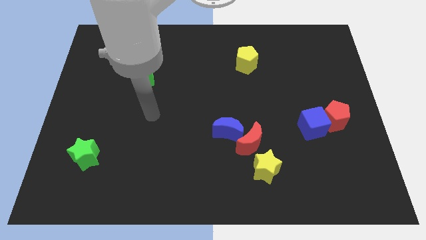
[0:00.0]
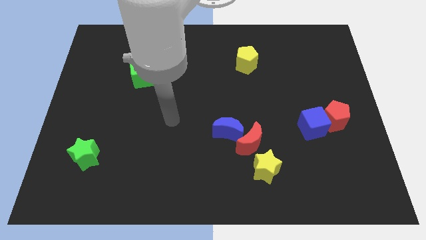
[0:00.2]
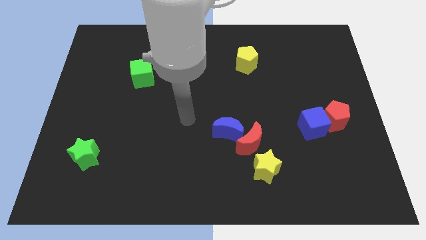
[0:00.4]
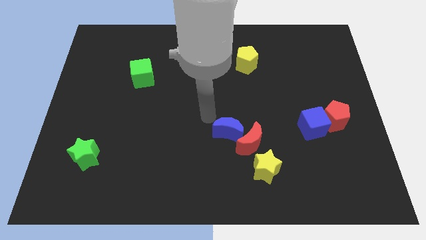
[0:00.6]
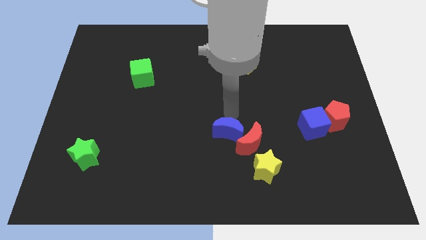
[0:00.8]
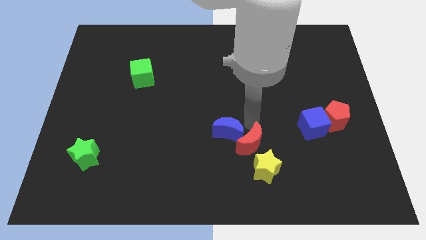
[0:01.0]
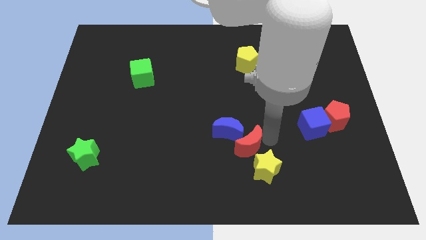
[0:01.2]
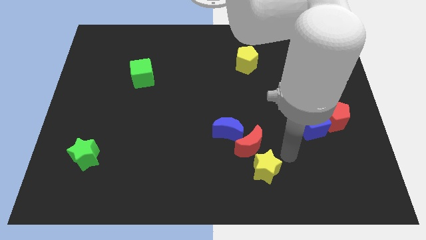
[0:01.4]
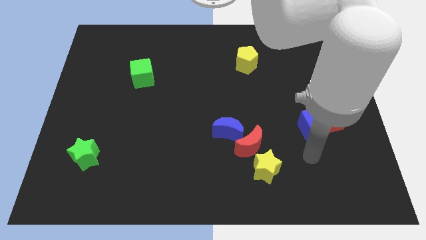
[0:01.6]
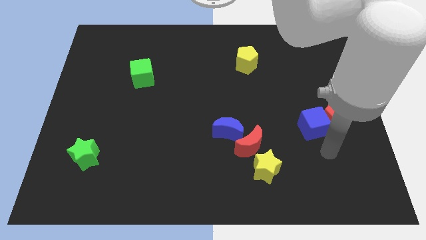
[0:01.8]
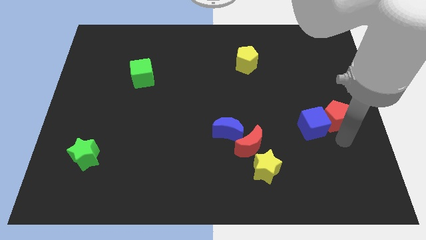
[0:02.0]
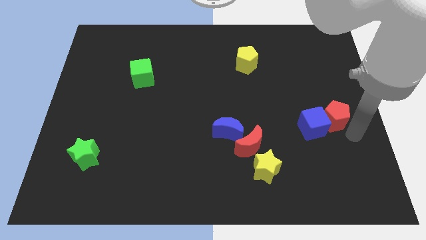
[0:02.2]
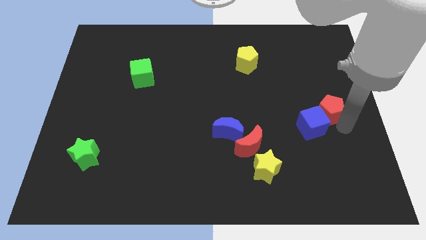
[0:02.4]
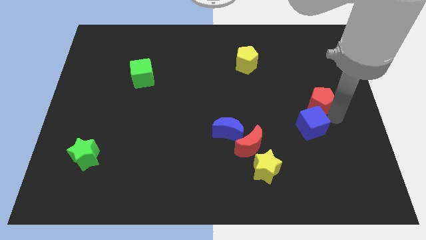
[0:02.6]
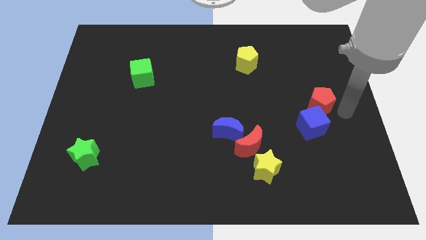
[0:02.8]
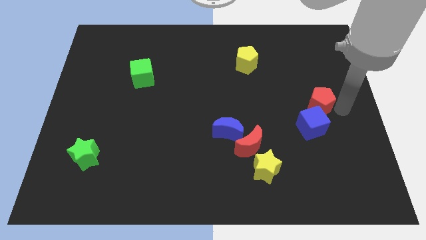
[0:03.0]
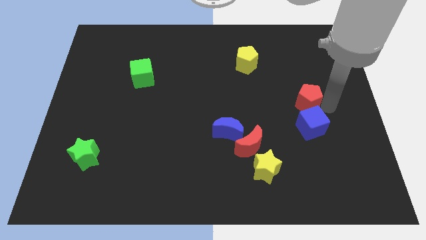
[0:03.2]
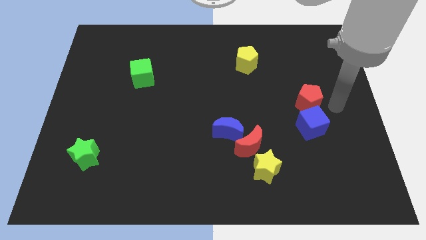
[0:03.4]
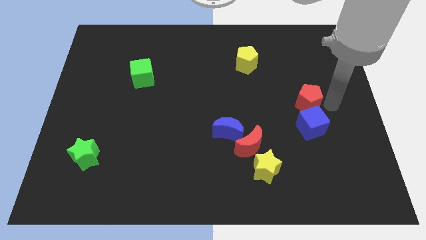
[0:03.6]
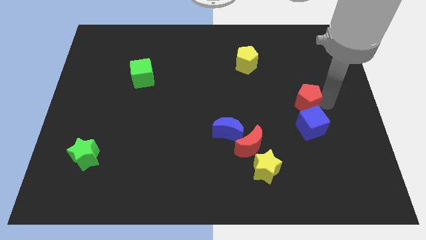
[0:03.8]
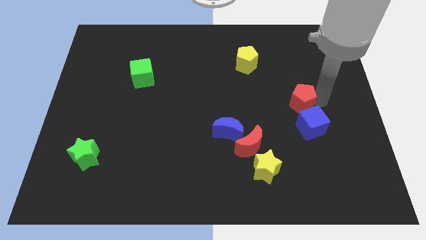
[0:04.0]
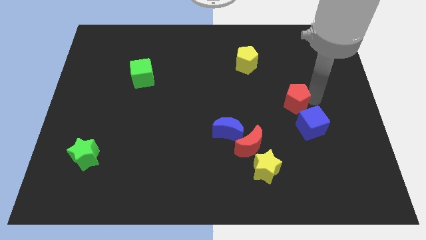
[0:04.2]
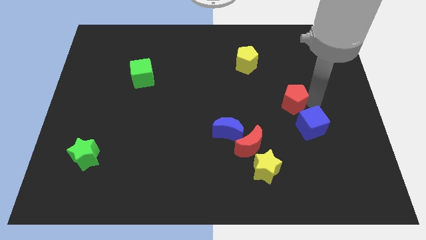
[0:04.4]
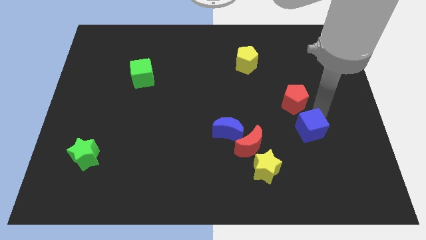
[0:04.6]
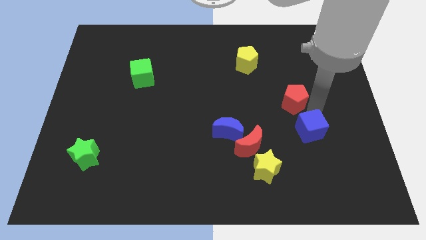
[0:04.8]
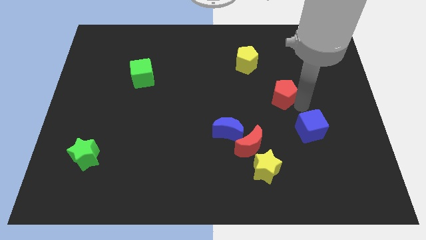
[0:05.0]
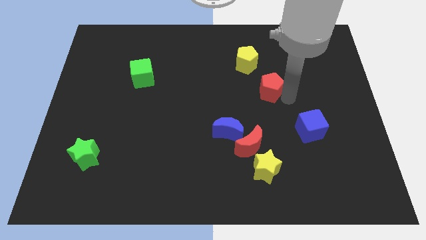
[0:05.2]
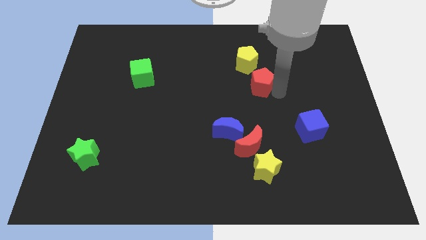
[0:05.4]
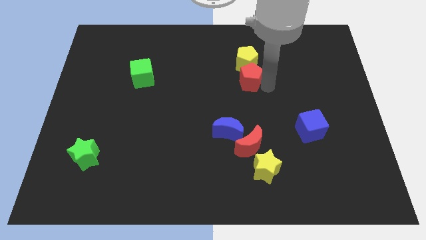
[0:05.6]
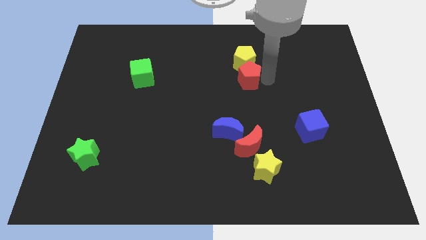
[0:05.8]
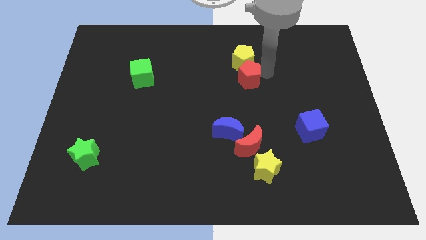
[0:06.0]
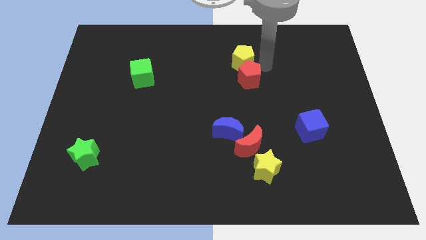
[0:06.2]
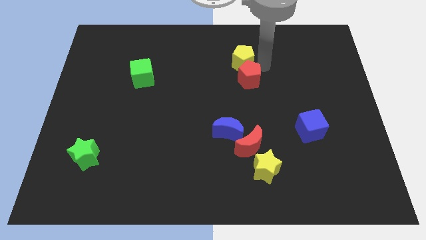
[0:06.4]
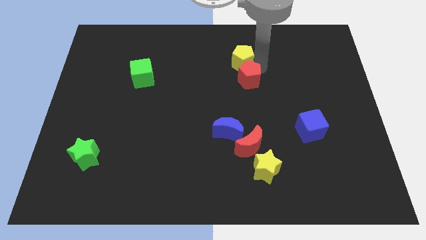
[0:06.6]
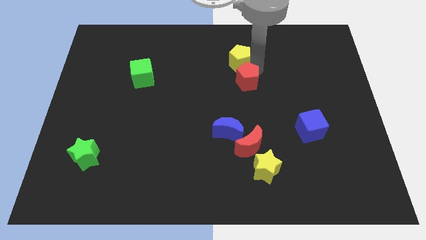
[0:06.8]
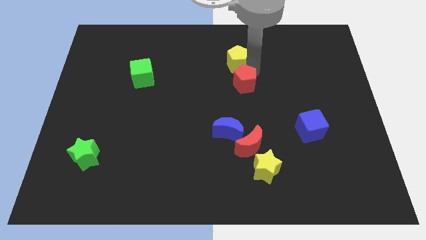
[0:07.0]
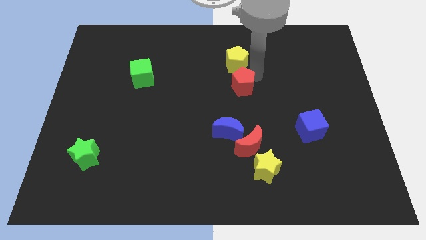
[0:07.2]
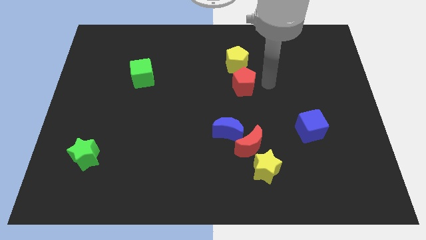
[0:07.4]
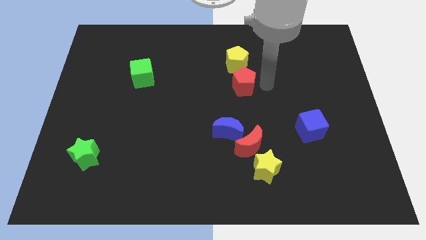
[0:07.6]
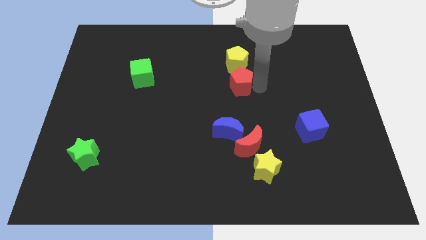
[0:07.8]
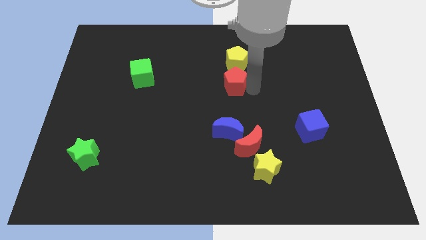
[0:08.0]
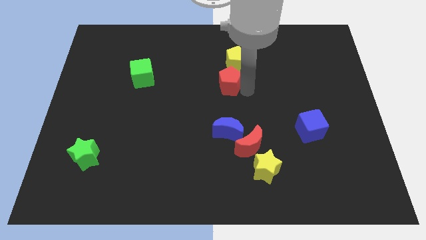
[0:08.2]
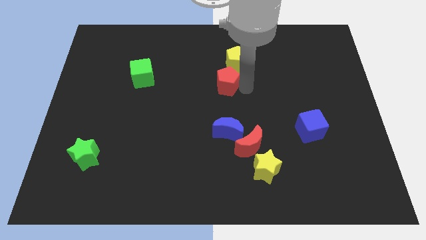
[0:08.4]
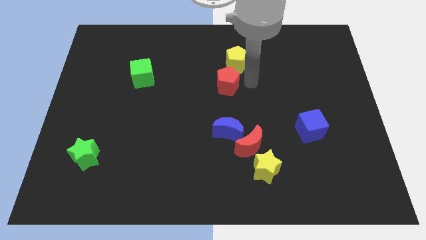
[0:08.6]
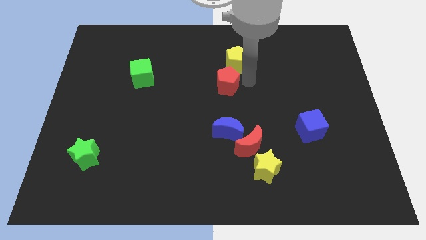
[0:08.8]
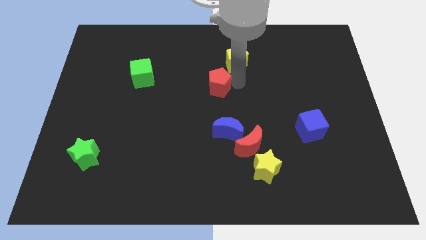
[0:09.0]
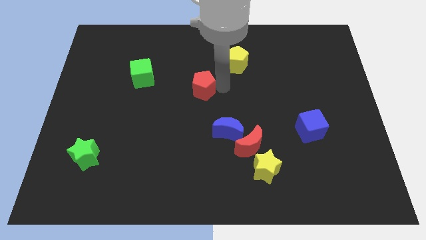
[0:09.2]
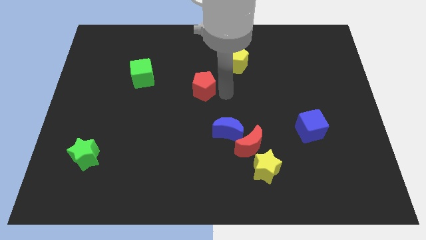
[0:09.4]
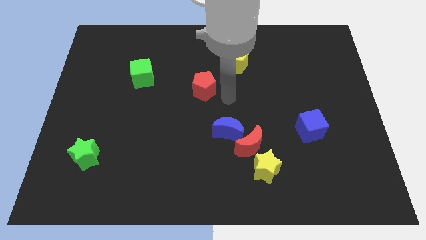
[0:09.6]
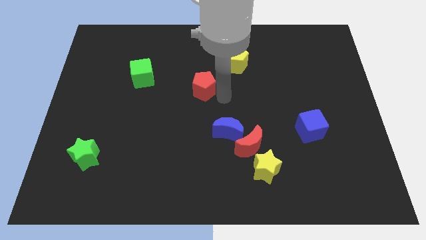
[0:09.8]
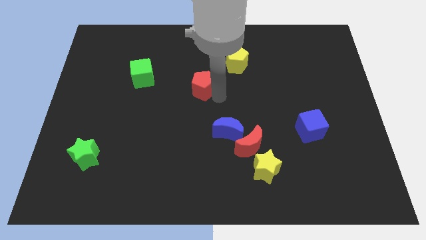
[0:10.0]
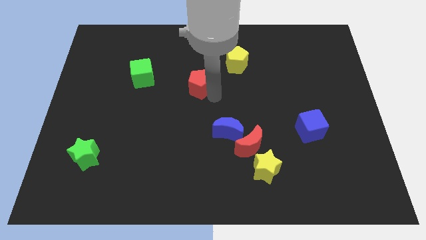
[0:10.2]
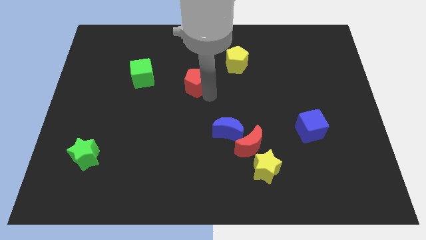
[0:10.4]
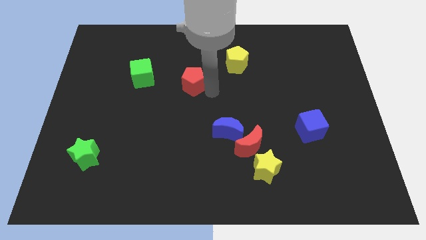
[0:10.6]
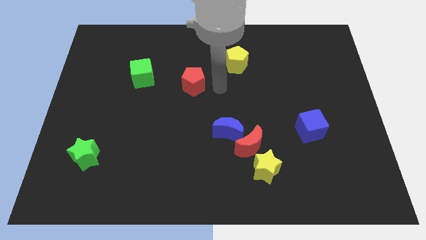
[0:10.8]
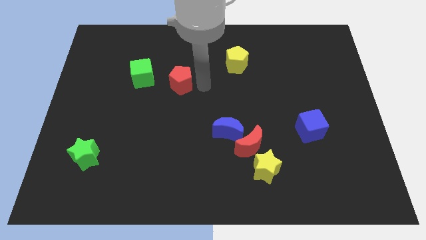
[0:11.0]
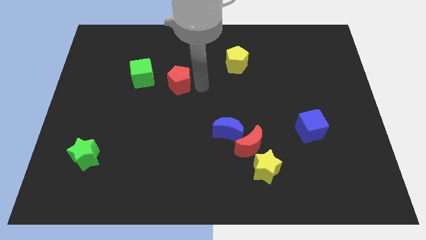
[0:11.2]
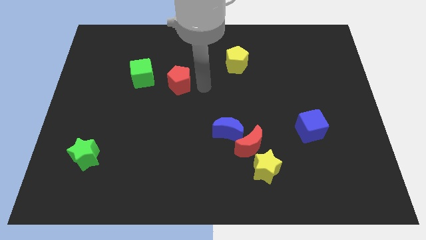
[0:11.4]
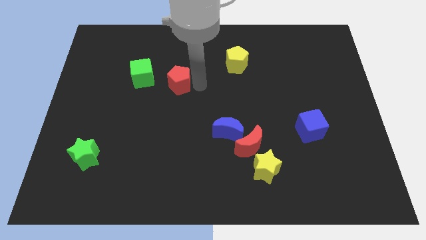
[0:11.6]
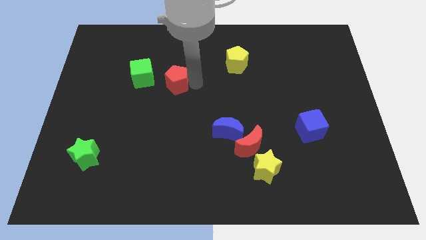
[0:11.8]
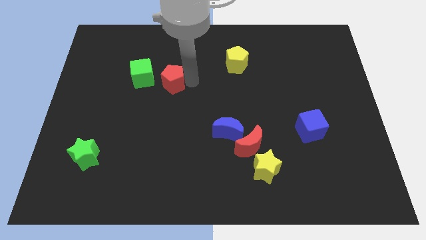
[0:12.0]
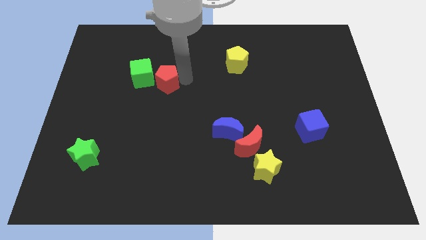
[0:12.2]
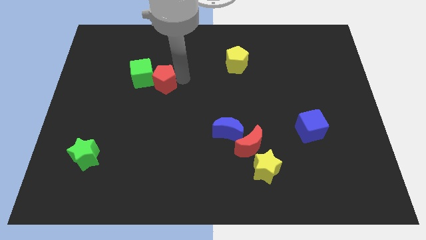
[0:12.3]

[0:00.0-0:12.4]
move the red pentagon next to the green cube

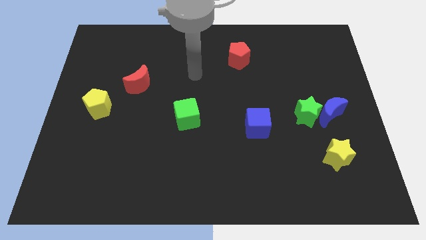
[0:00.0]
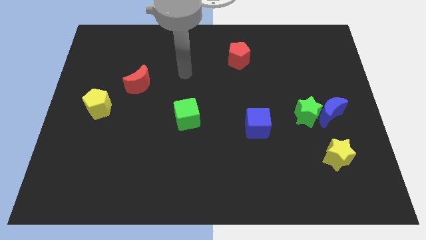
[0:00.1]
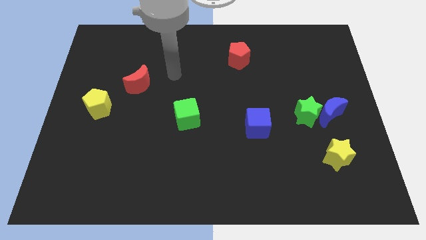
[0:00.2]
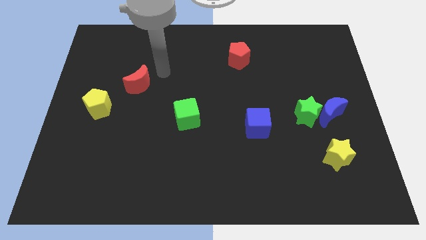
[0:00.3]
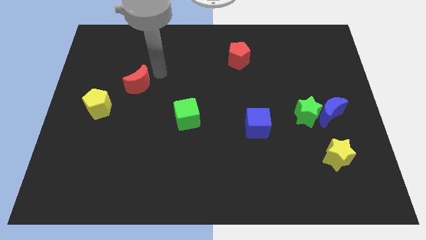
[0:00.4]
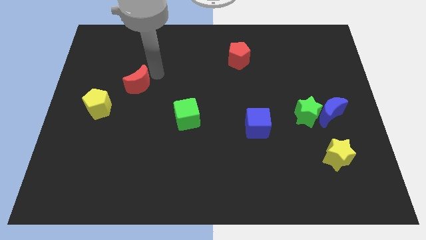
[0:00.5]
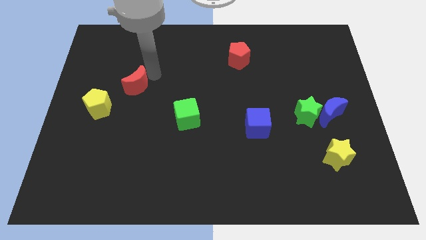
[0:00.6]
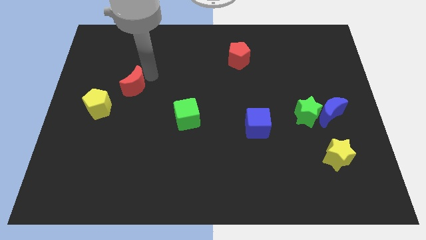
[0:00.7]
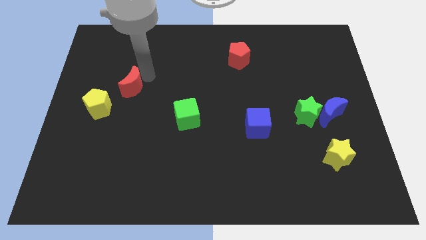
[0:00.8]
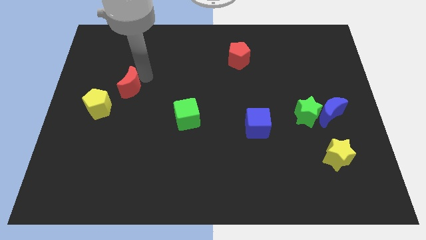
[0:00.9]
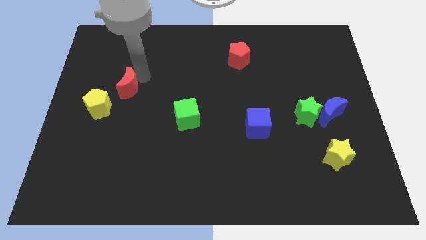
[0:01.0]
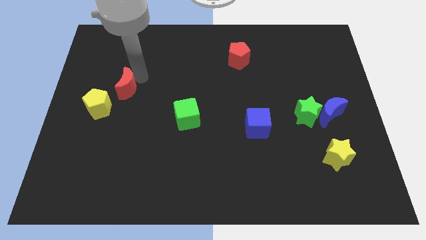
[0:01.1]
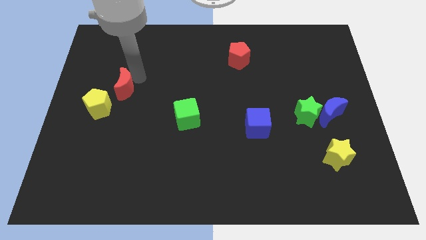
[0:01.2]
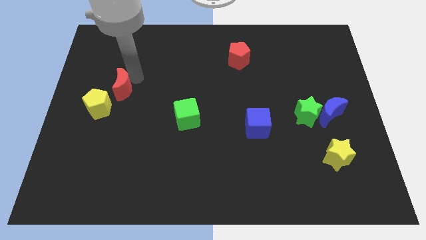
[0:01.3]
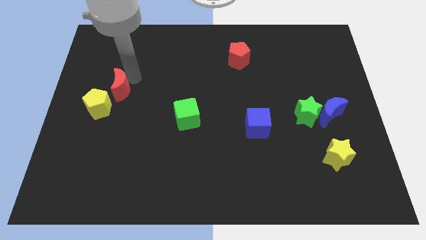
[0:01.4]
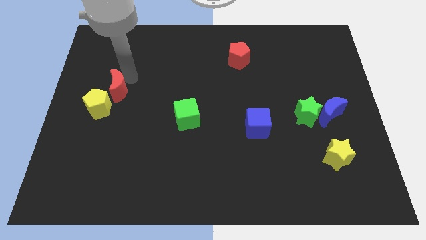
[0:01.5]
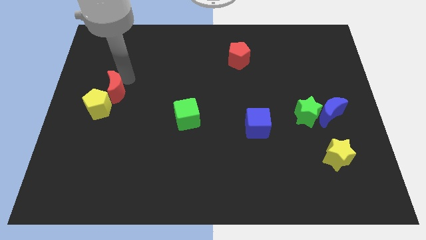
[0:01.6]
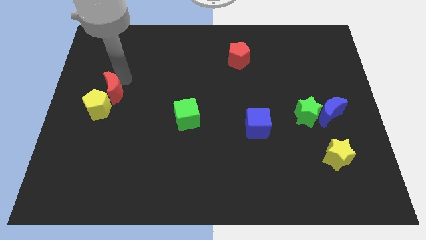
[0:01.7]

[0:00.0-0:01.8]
slide the red moon next to the yellow pentagon
